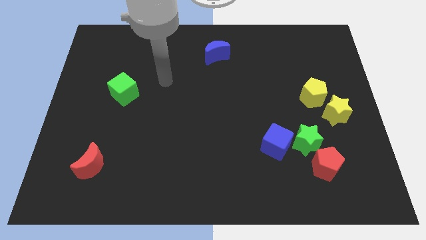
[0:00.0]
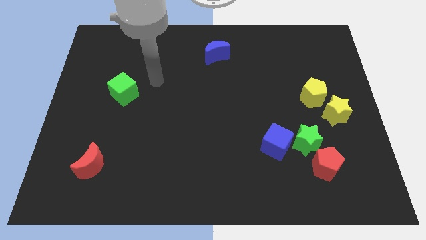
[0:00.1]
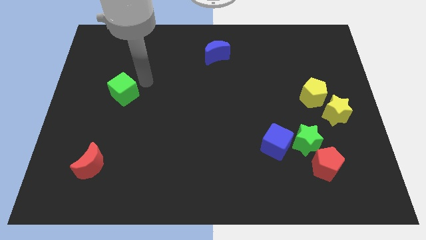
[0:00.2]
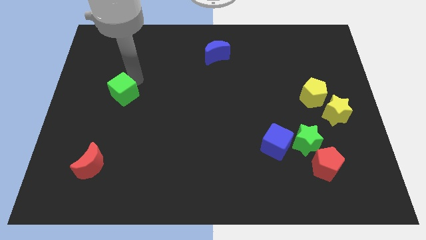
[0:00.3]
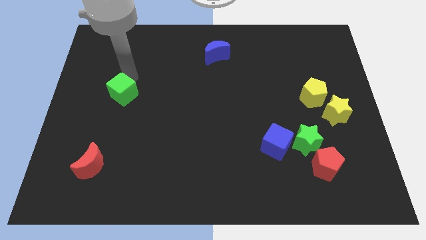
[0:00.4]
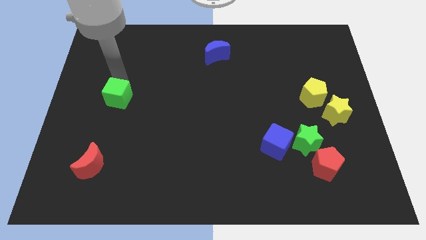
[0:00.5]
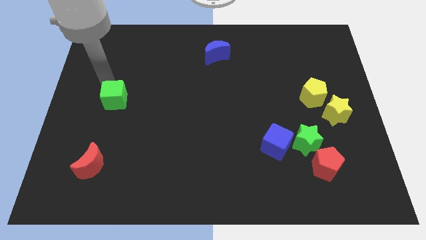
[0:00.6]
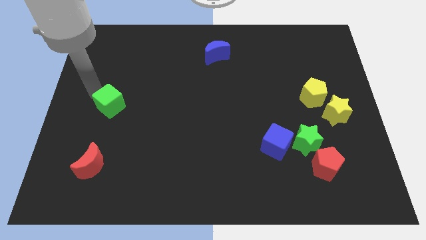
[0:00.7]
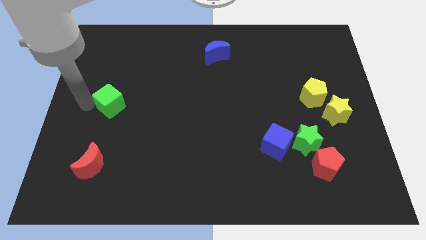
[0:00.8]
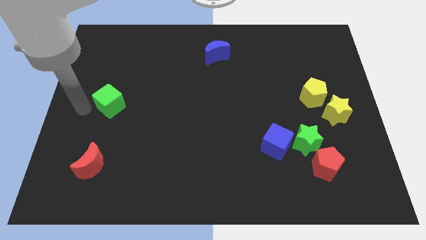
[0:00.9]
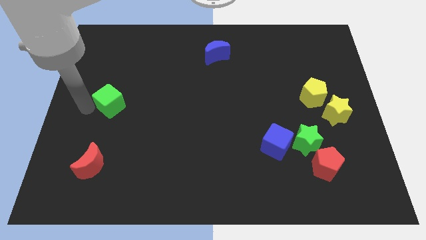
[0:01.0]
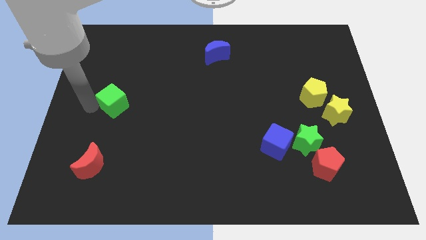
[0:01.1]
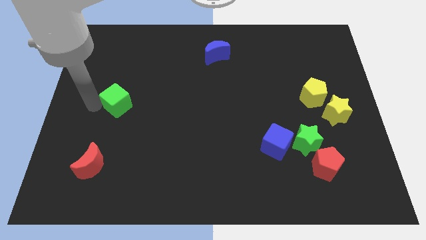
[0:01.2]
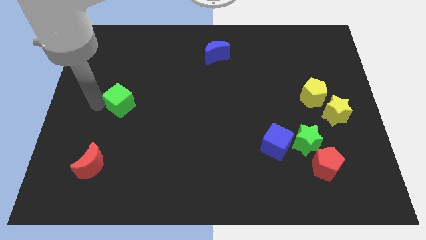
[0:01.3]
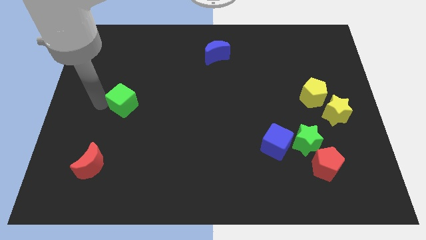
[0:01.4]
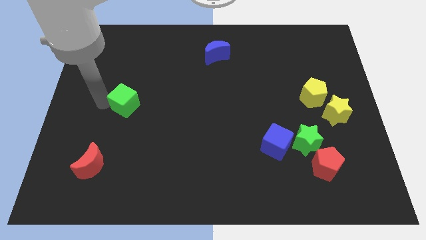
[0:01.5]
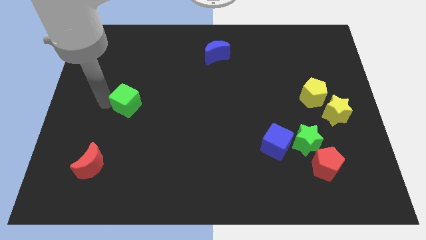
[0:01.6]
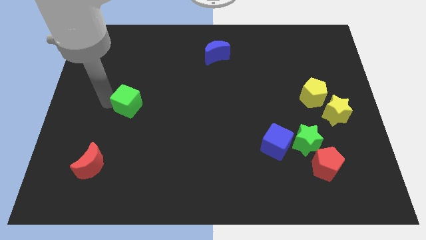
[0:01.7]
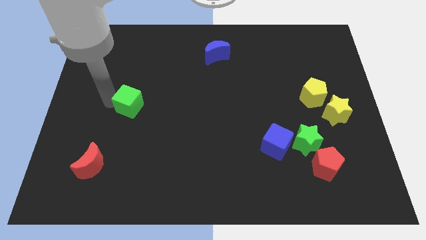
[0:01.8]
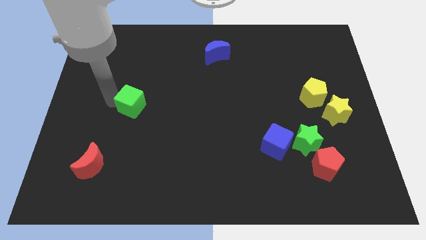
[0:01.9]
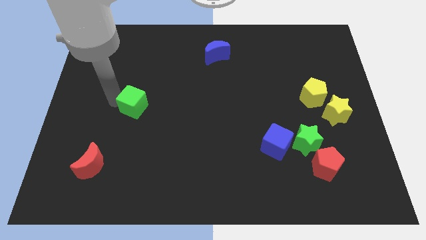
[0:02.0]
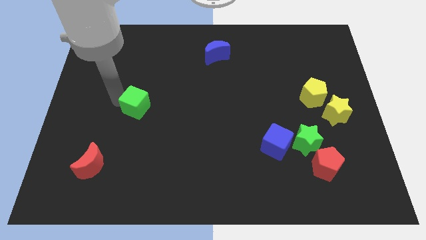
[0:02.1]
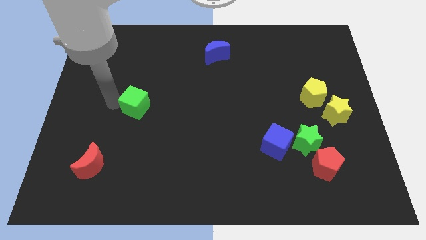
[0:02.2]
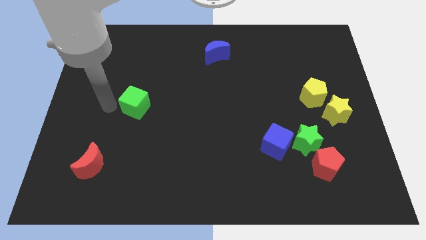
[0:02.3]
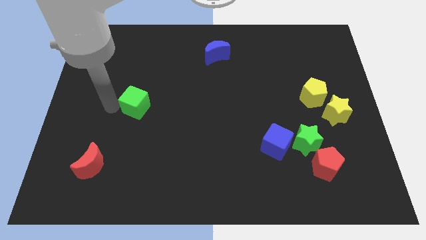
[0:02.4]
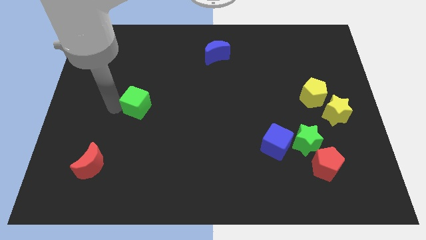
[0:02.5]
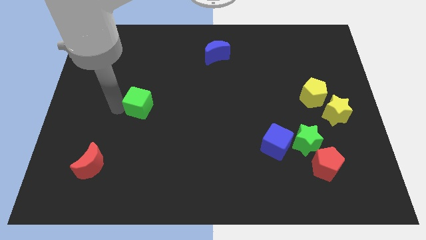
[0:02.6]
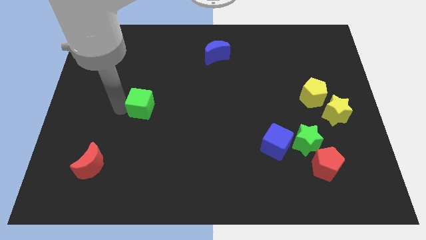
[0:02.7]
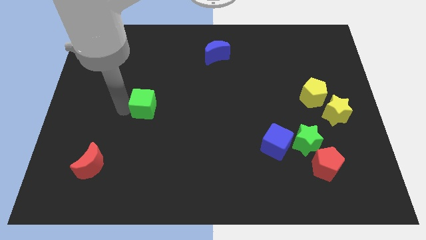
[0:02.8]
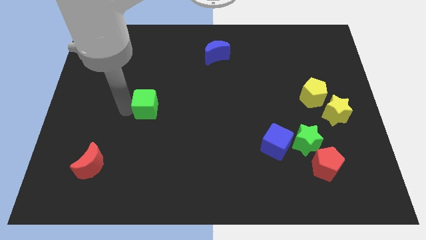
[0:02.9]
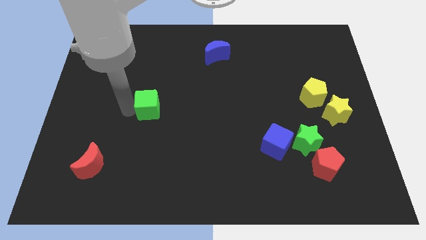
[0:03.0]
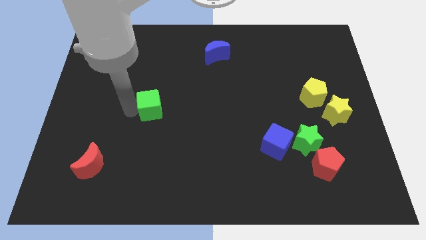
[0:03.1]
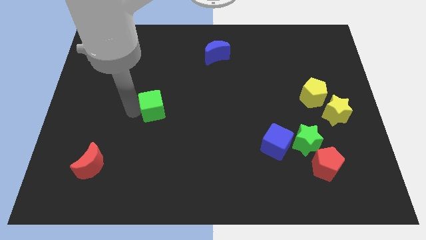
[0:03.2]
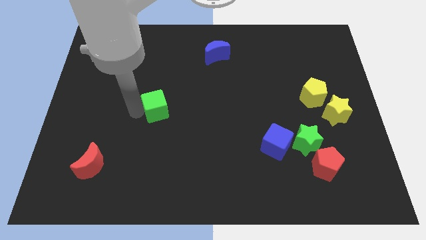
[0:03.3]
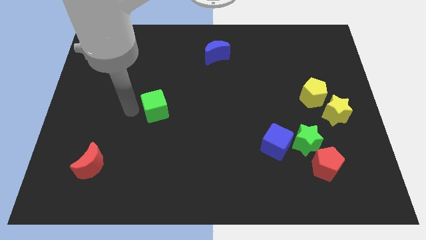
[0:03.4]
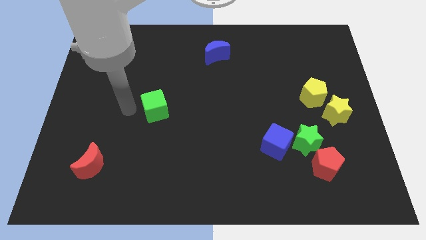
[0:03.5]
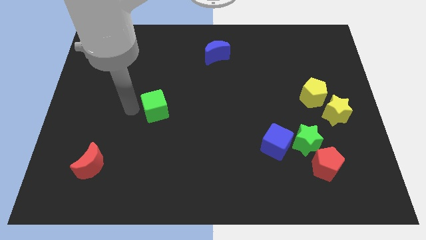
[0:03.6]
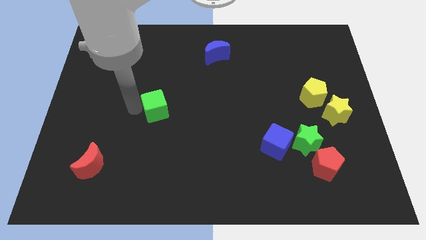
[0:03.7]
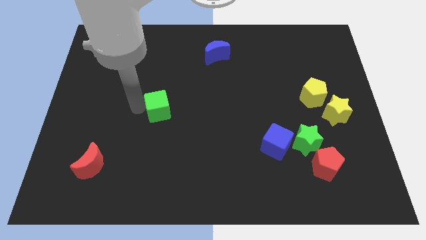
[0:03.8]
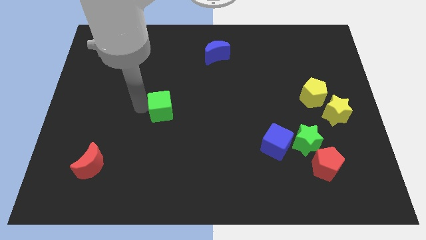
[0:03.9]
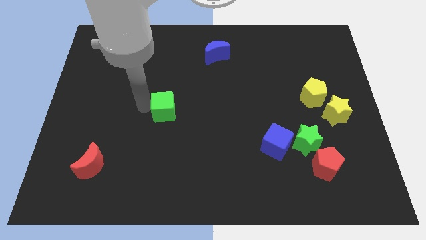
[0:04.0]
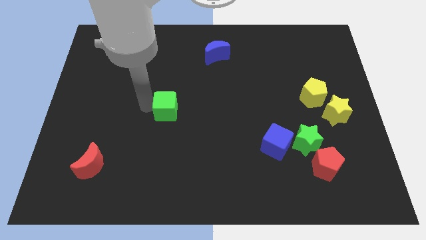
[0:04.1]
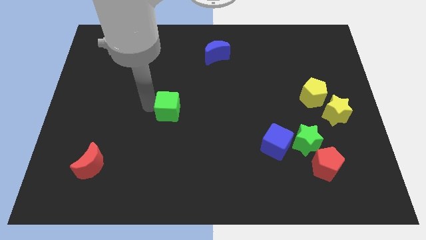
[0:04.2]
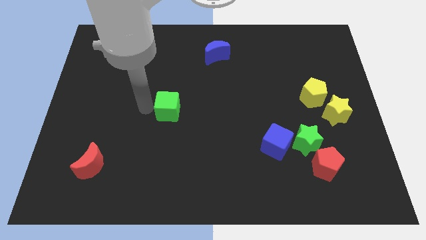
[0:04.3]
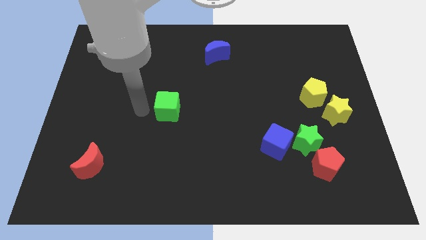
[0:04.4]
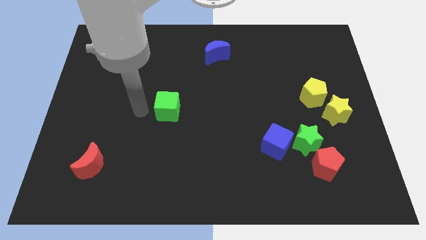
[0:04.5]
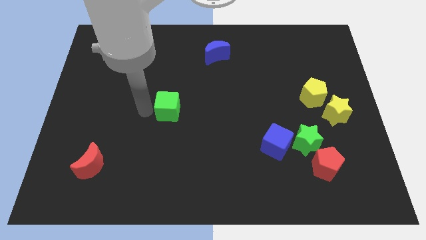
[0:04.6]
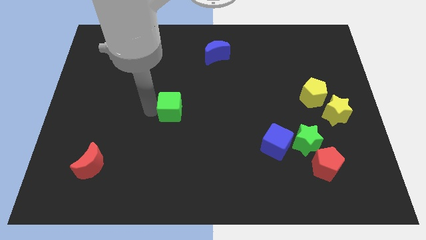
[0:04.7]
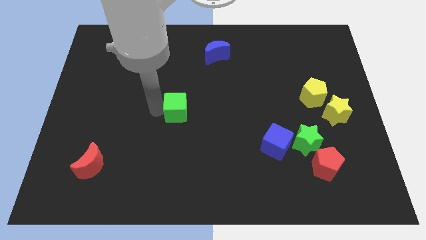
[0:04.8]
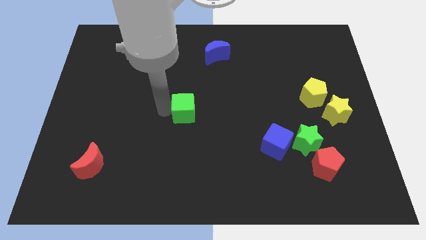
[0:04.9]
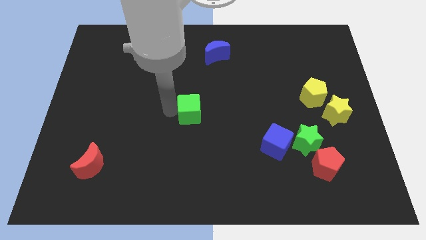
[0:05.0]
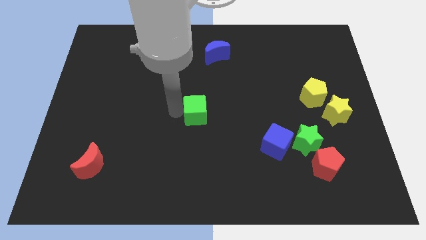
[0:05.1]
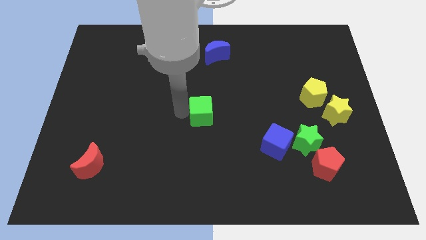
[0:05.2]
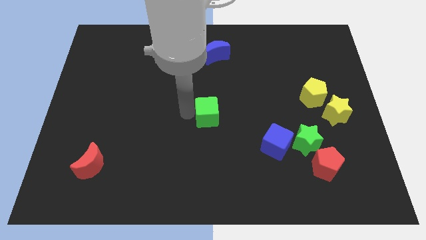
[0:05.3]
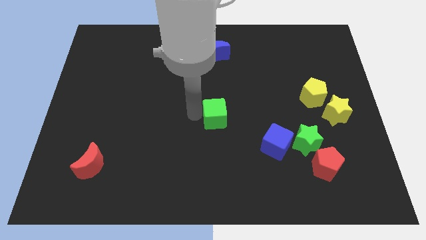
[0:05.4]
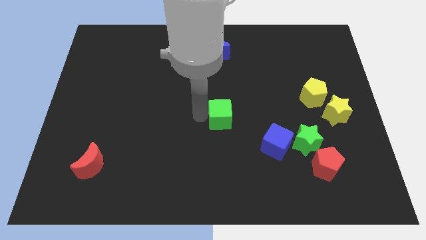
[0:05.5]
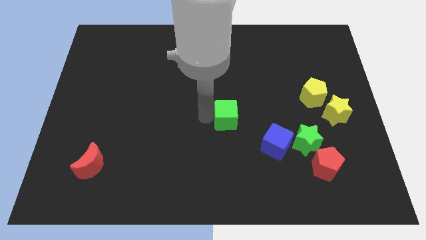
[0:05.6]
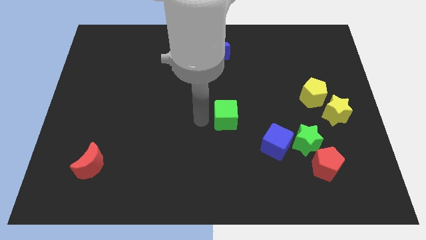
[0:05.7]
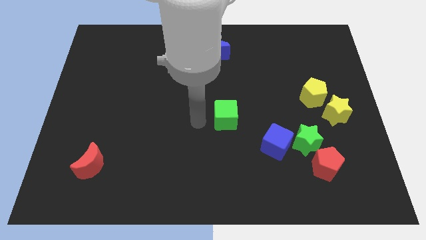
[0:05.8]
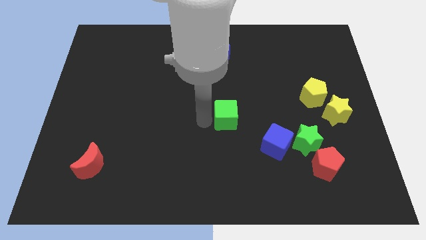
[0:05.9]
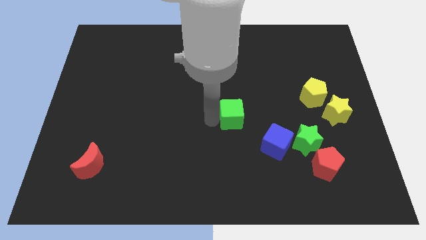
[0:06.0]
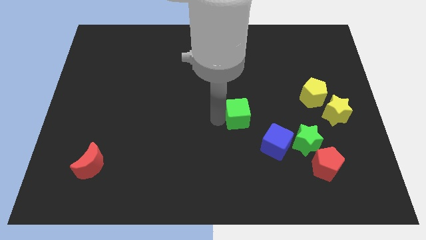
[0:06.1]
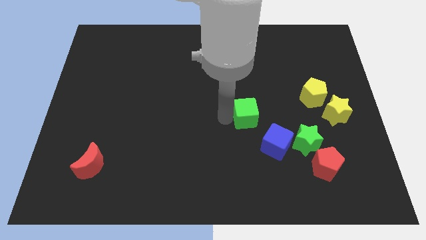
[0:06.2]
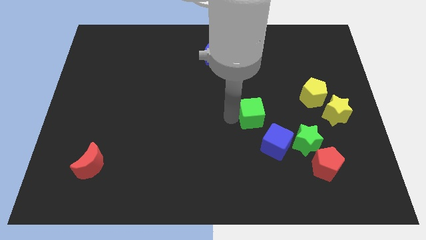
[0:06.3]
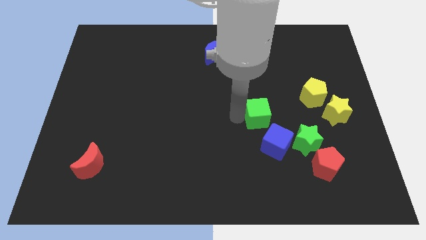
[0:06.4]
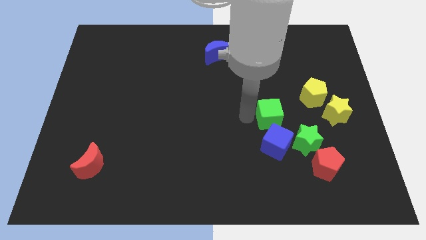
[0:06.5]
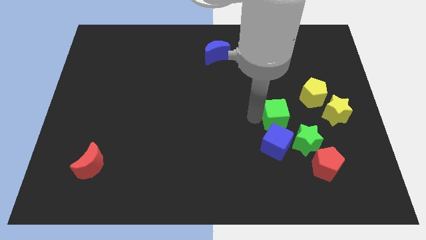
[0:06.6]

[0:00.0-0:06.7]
put the green cube to the bottom left side of the yellow pentagon

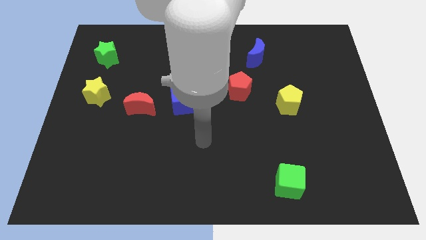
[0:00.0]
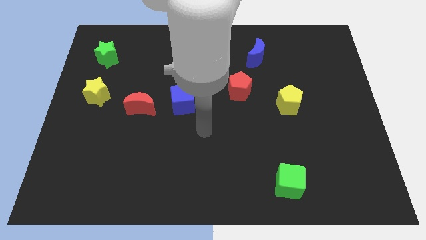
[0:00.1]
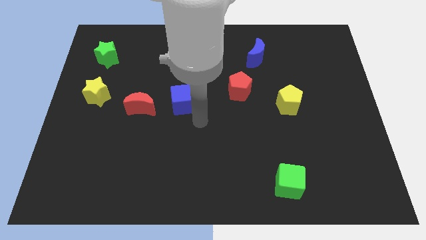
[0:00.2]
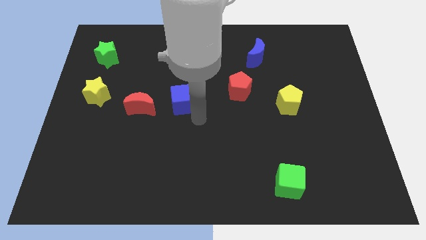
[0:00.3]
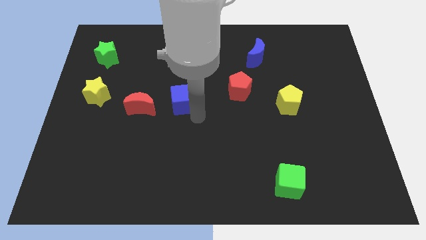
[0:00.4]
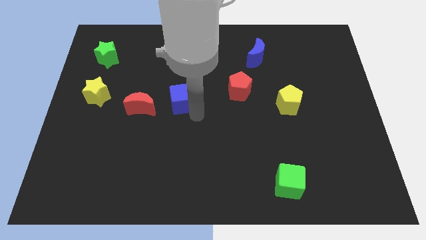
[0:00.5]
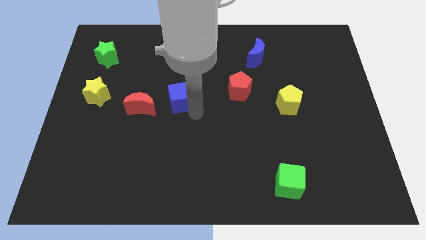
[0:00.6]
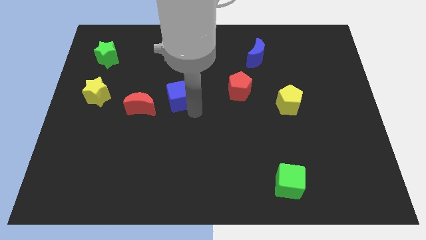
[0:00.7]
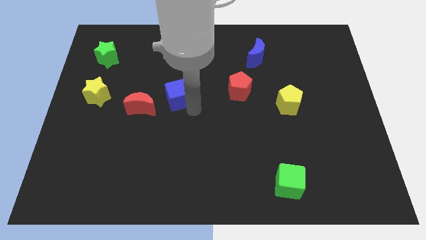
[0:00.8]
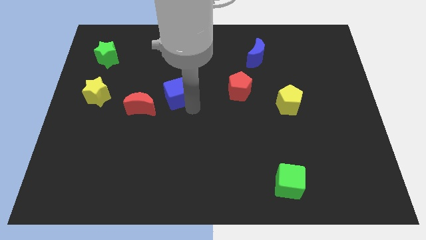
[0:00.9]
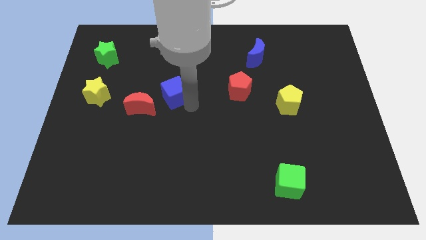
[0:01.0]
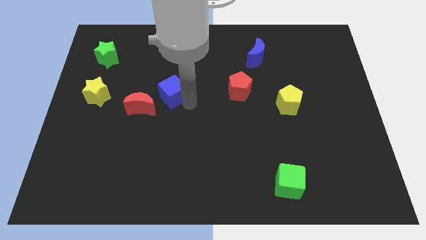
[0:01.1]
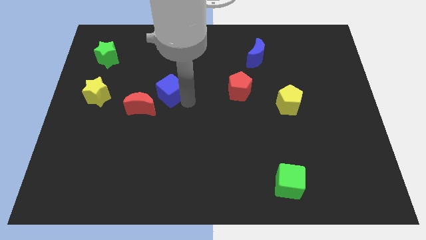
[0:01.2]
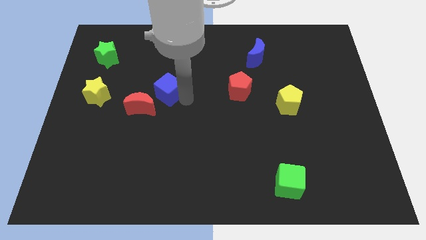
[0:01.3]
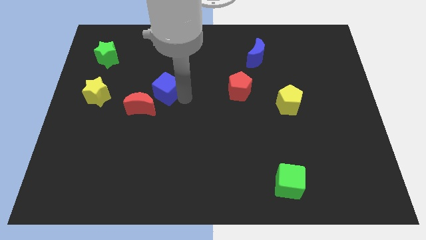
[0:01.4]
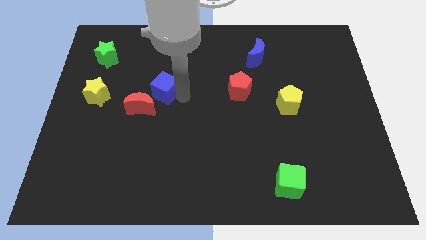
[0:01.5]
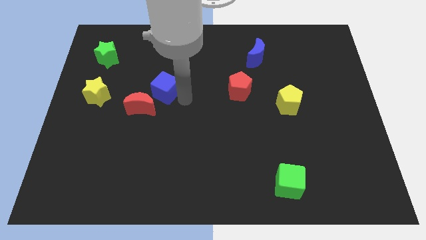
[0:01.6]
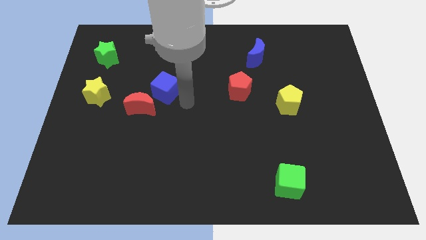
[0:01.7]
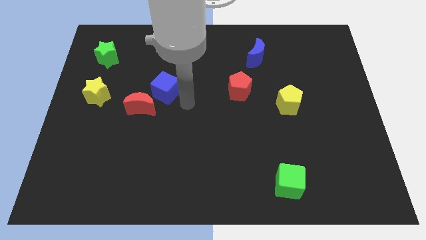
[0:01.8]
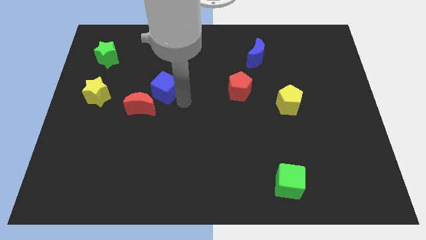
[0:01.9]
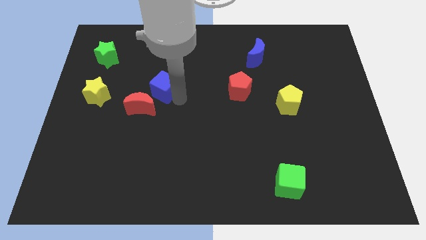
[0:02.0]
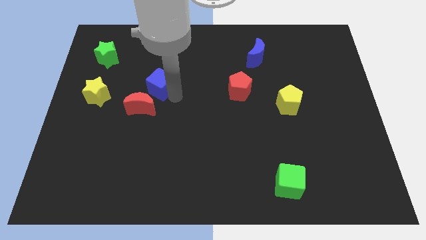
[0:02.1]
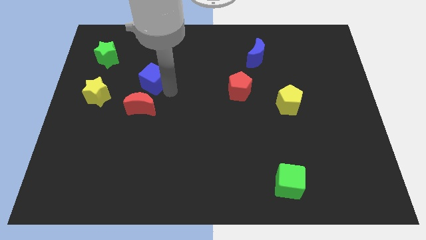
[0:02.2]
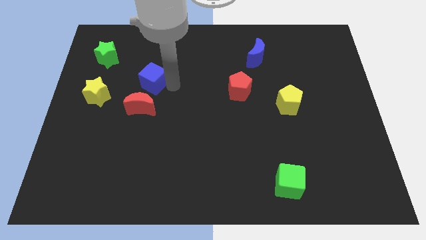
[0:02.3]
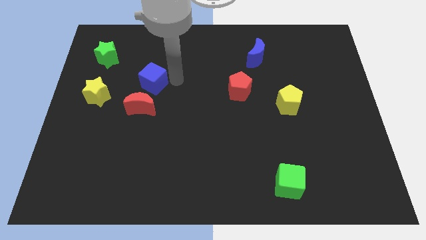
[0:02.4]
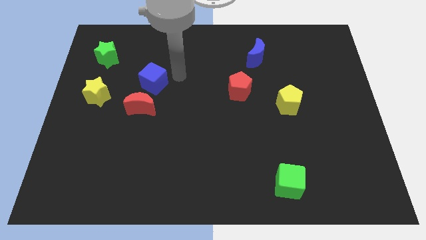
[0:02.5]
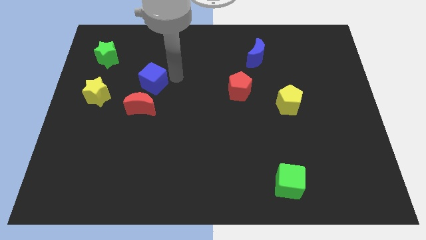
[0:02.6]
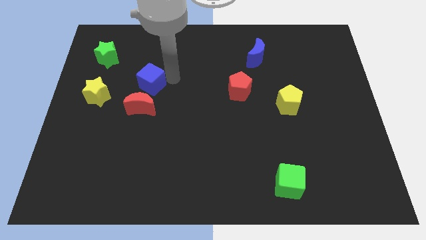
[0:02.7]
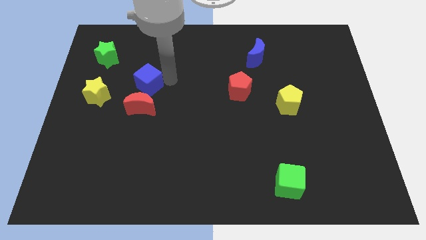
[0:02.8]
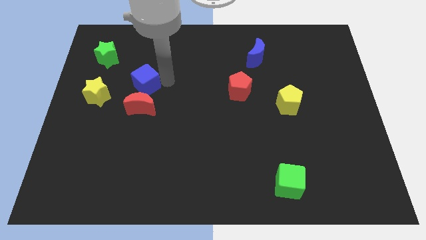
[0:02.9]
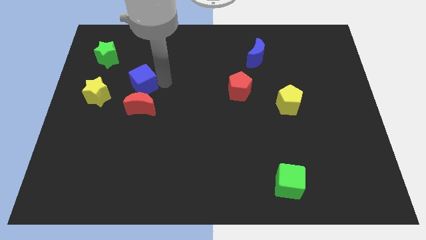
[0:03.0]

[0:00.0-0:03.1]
move the blue cube to the top left side of the red moon
